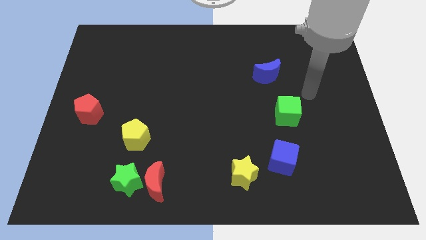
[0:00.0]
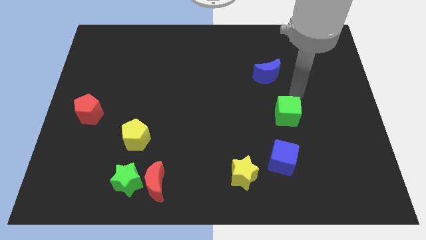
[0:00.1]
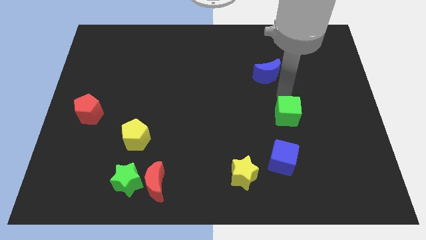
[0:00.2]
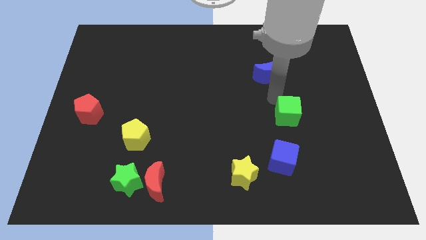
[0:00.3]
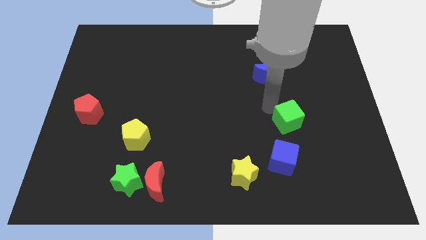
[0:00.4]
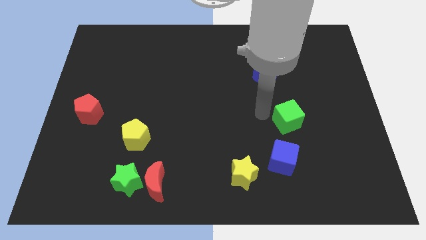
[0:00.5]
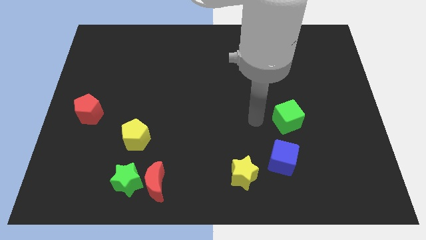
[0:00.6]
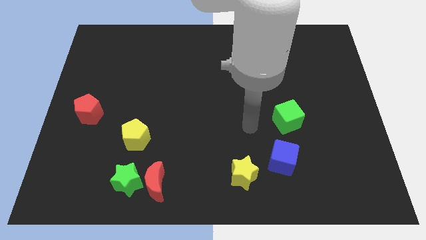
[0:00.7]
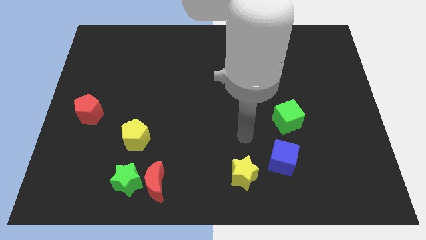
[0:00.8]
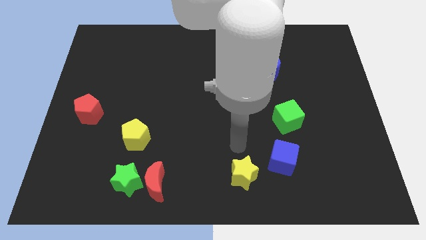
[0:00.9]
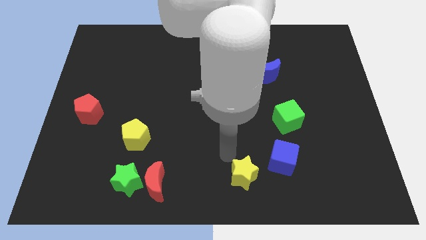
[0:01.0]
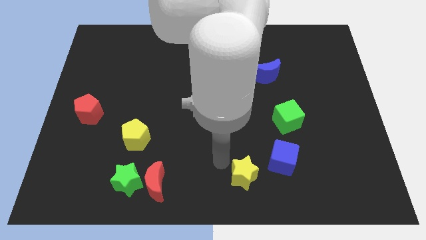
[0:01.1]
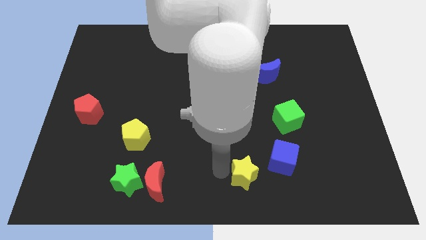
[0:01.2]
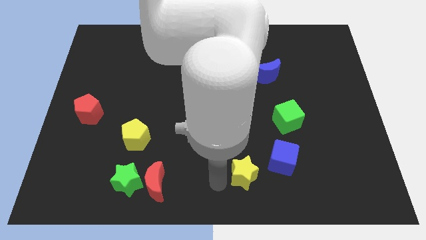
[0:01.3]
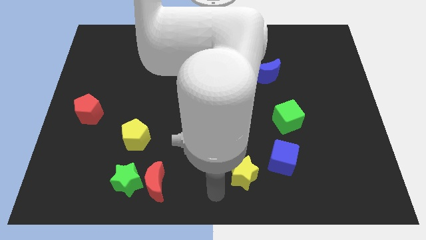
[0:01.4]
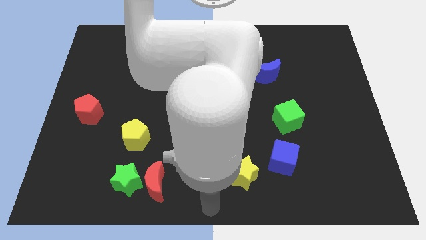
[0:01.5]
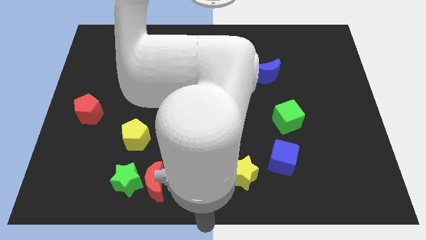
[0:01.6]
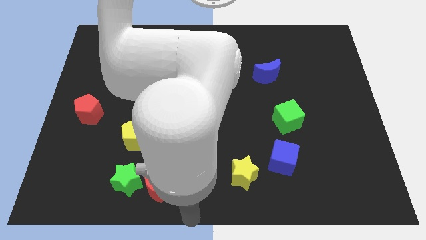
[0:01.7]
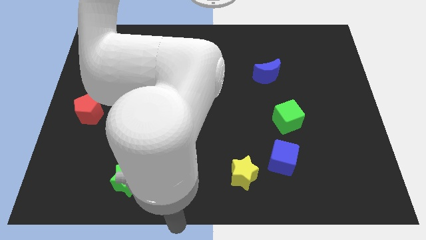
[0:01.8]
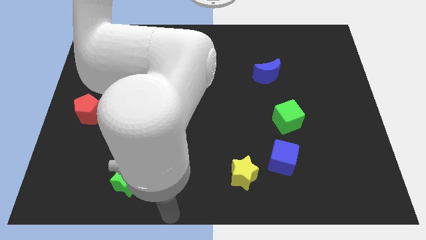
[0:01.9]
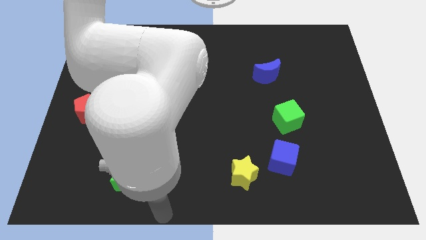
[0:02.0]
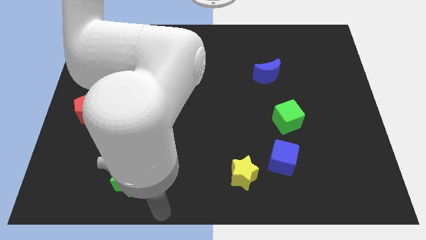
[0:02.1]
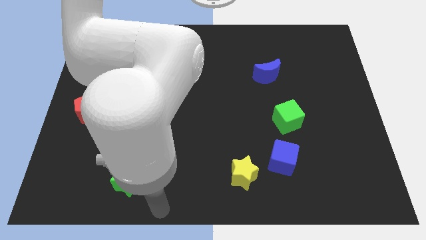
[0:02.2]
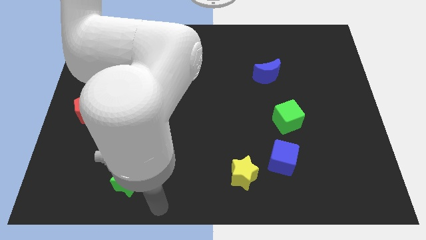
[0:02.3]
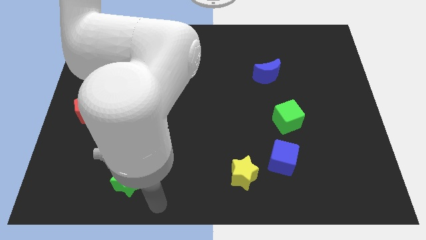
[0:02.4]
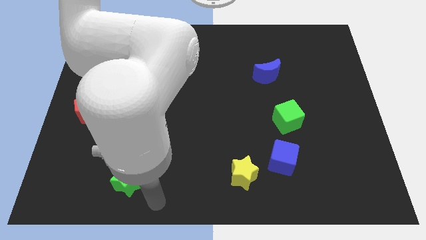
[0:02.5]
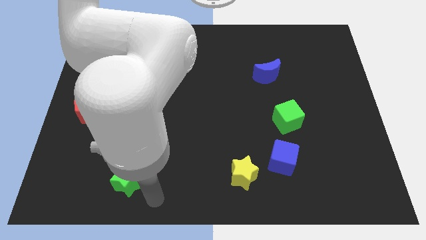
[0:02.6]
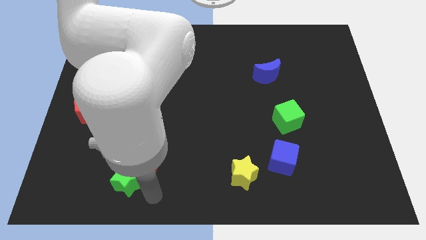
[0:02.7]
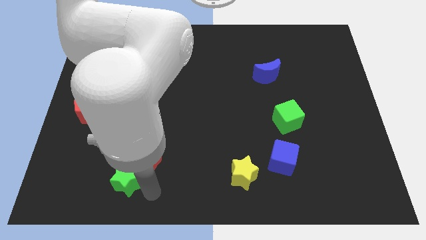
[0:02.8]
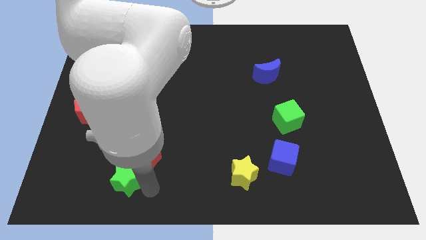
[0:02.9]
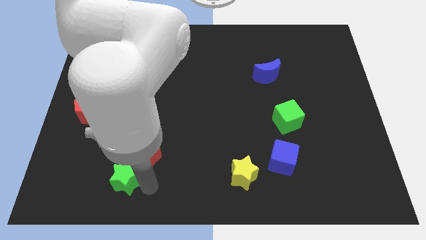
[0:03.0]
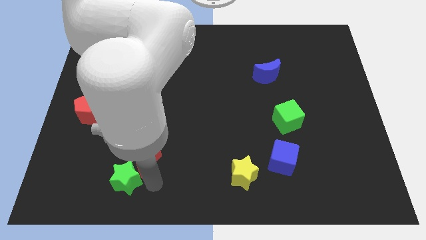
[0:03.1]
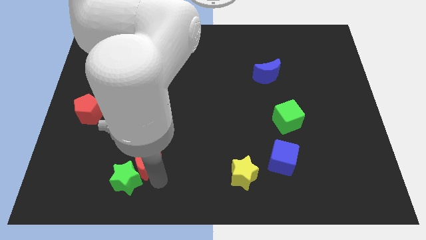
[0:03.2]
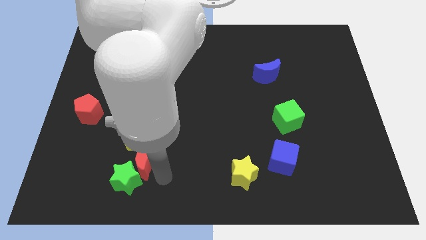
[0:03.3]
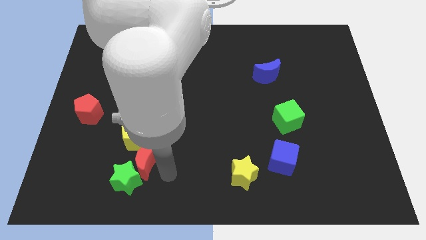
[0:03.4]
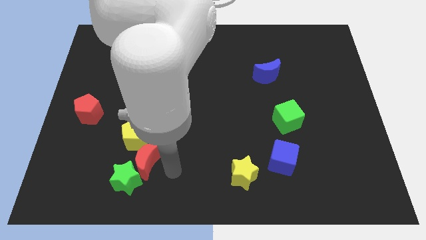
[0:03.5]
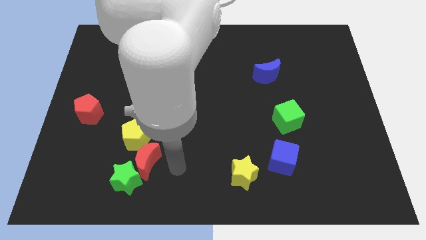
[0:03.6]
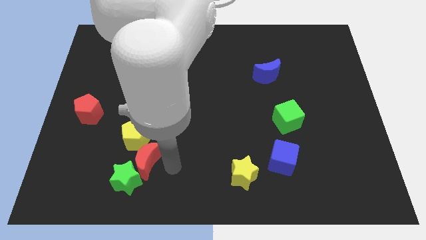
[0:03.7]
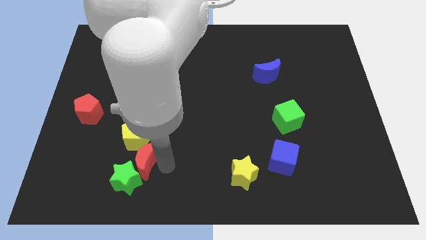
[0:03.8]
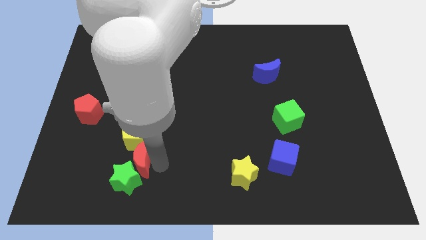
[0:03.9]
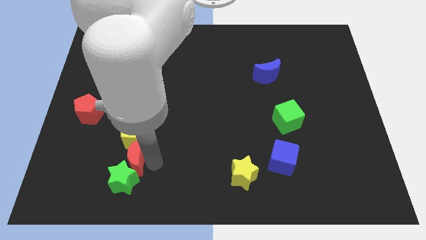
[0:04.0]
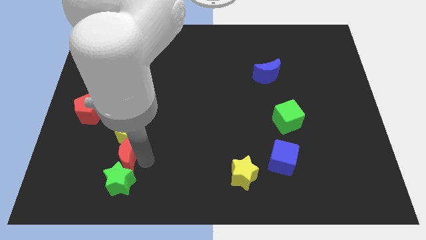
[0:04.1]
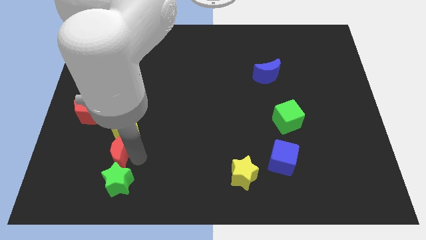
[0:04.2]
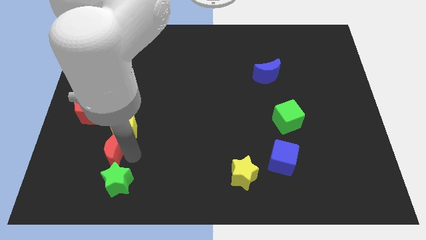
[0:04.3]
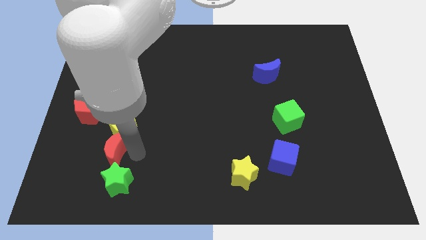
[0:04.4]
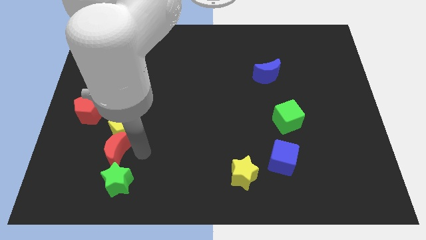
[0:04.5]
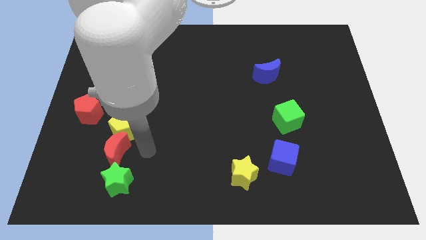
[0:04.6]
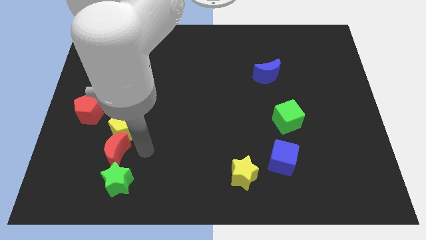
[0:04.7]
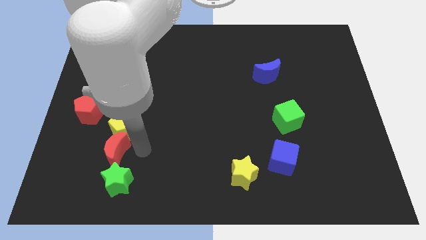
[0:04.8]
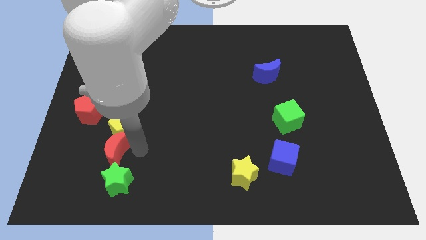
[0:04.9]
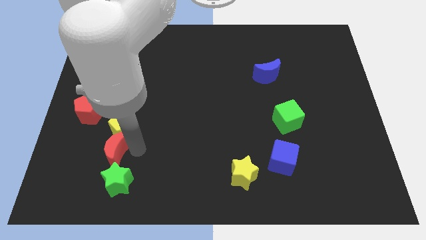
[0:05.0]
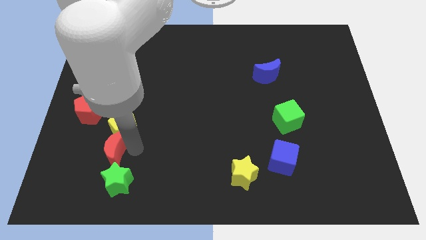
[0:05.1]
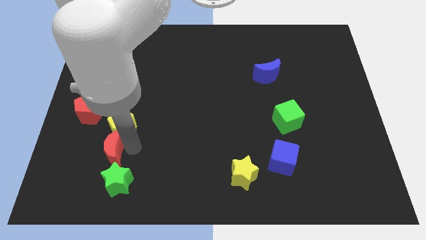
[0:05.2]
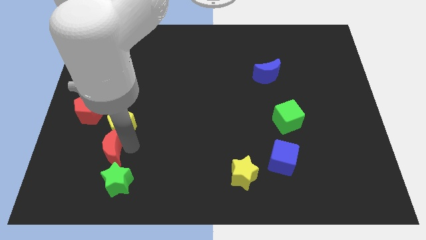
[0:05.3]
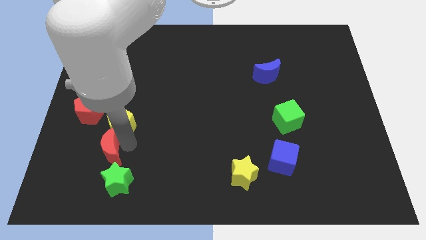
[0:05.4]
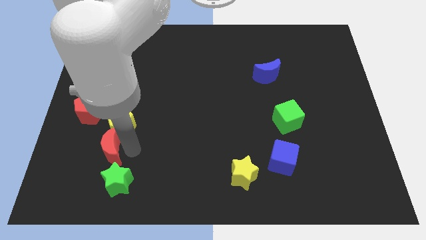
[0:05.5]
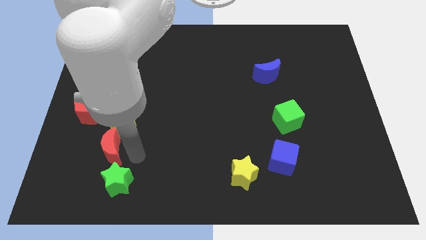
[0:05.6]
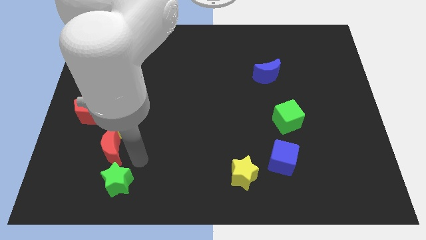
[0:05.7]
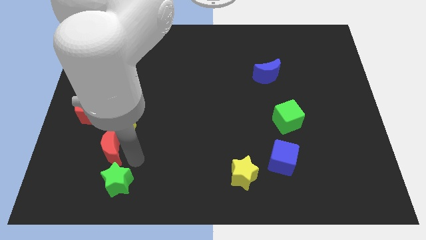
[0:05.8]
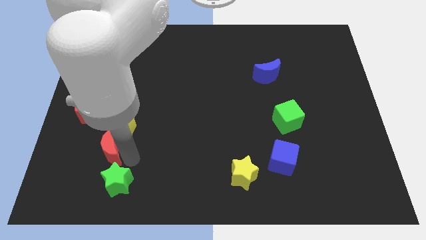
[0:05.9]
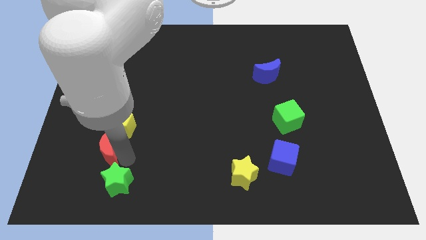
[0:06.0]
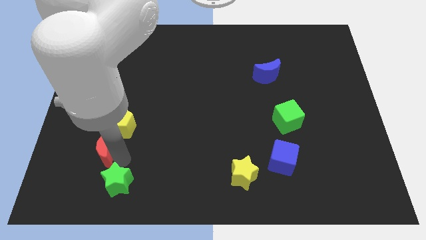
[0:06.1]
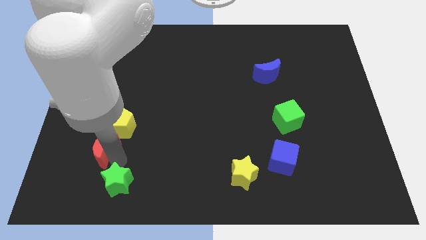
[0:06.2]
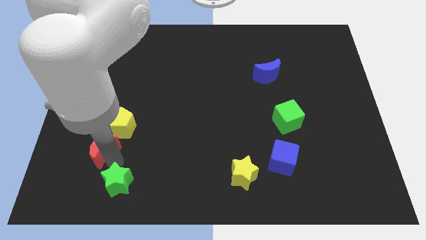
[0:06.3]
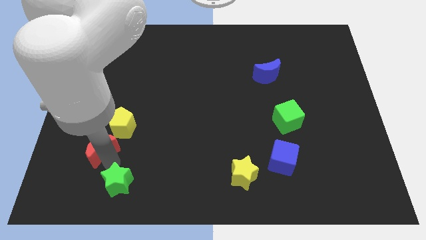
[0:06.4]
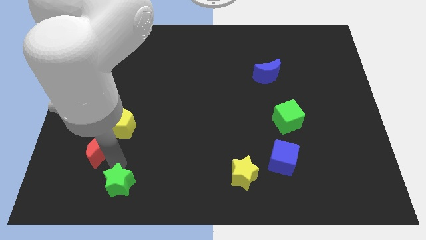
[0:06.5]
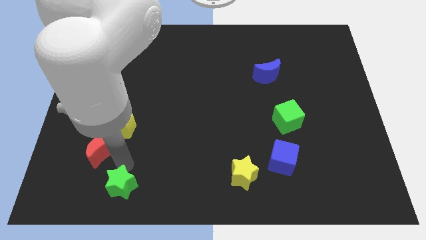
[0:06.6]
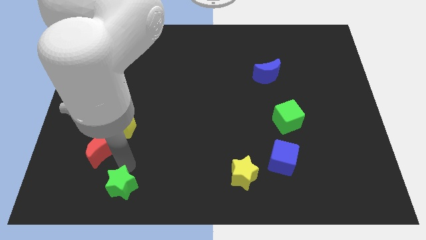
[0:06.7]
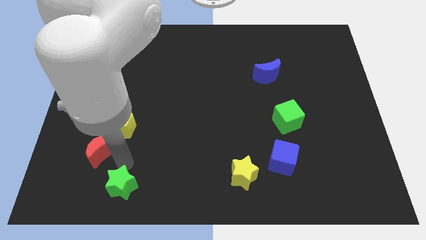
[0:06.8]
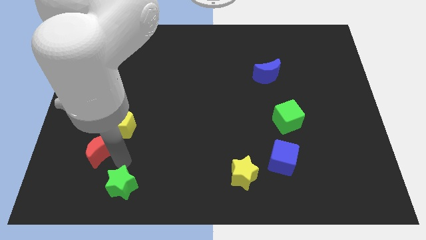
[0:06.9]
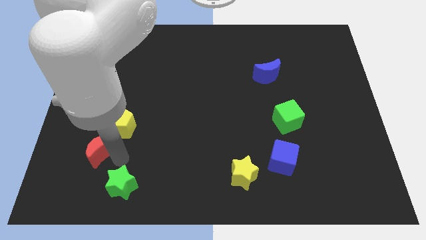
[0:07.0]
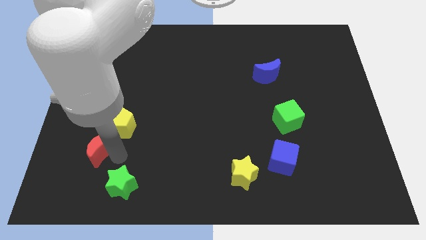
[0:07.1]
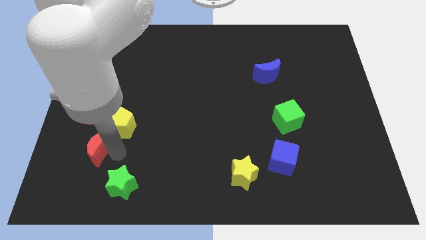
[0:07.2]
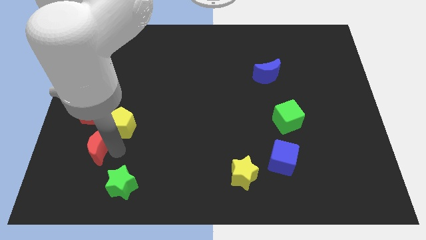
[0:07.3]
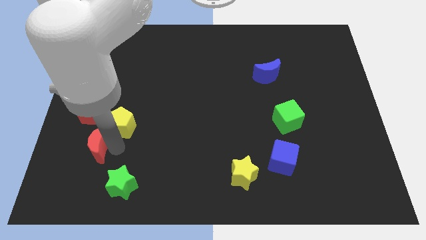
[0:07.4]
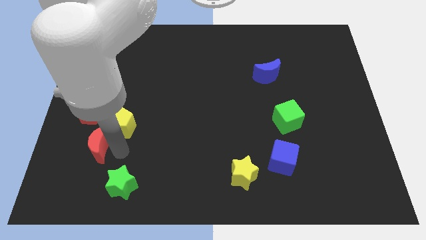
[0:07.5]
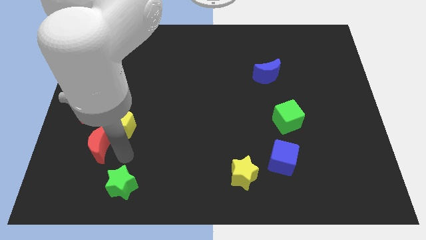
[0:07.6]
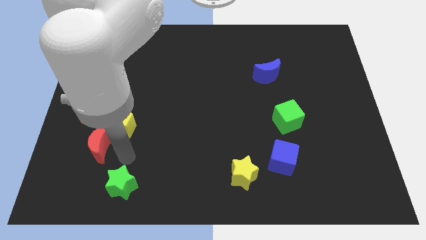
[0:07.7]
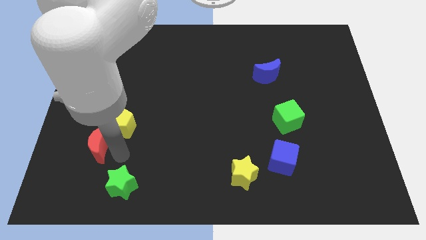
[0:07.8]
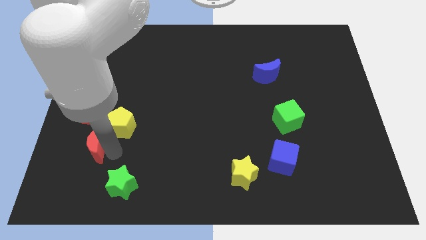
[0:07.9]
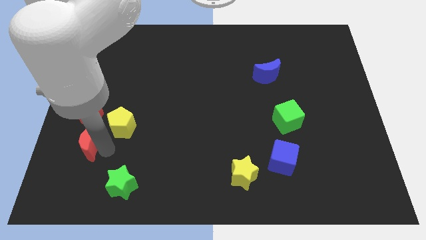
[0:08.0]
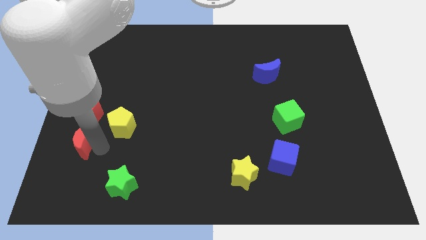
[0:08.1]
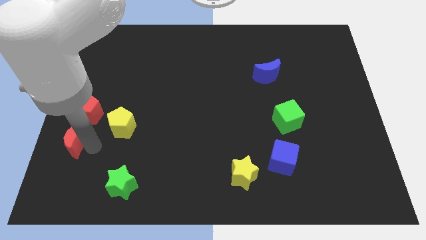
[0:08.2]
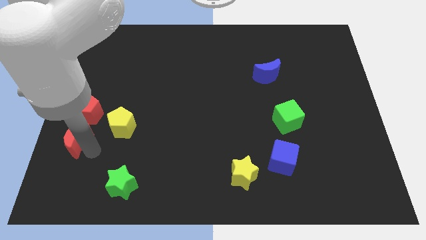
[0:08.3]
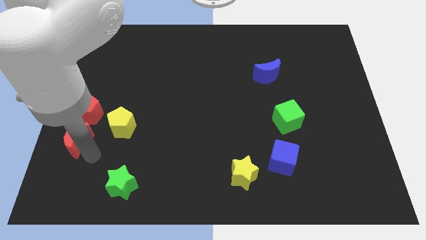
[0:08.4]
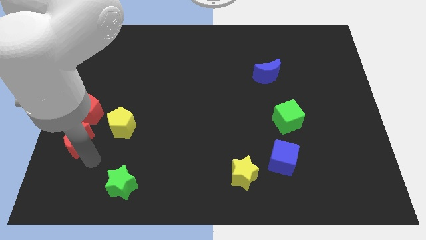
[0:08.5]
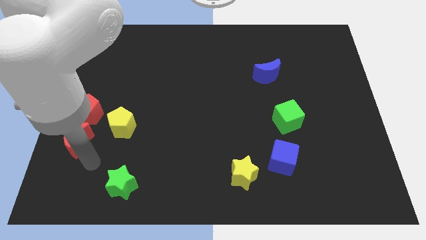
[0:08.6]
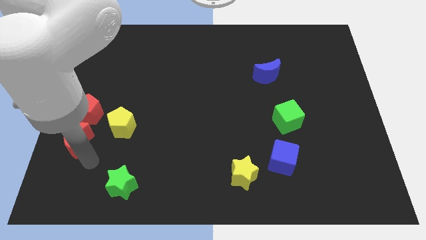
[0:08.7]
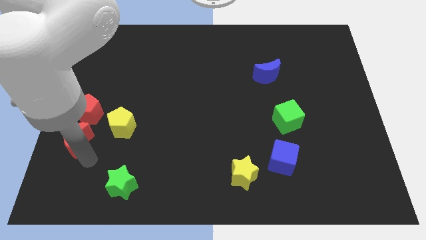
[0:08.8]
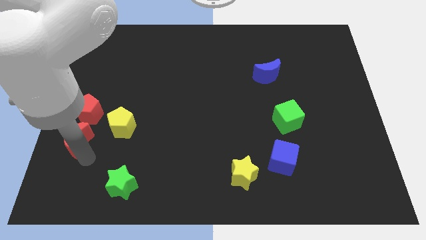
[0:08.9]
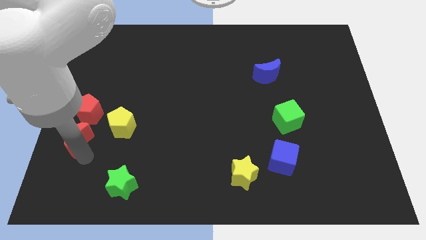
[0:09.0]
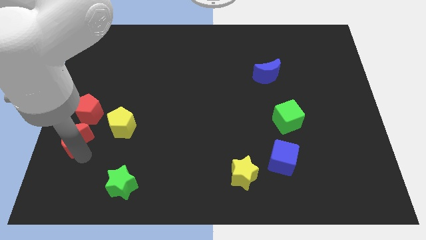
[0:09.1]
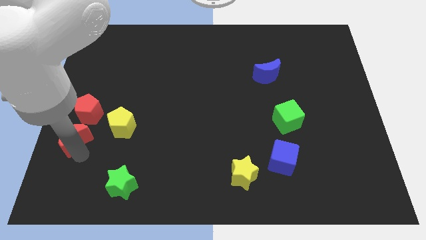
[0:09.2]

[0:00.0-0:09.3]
move the red moon to the left side of the board
